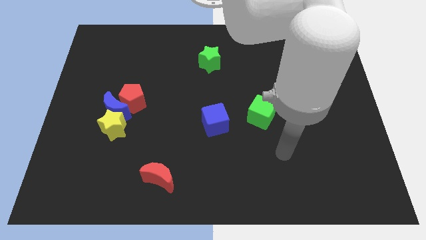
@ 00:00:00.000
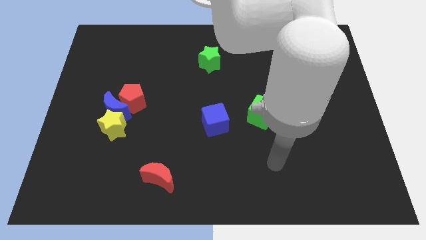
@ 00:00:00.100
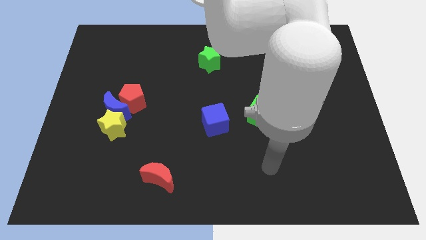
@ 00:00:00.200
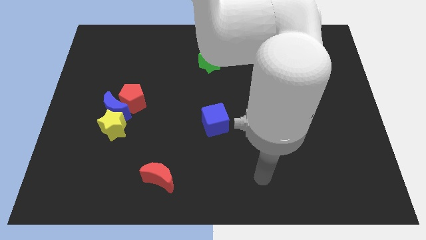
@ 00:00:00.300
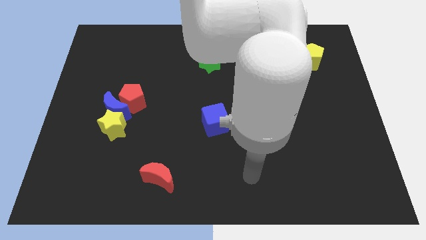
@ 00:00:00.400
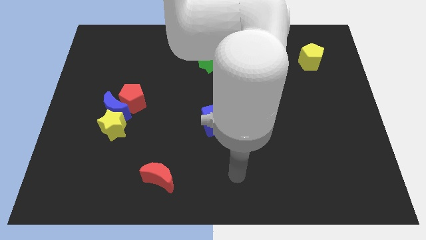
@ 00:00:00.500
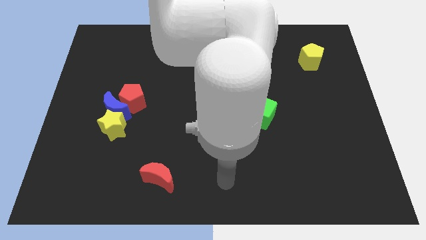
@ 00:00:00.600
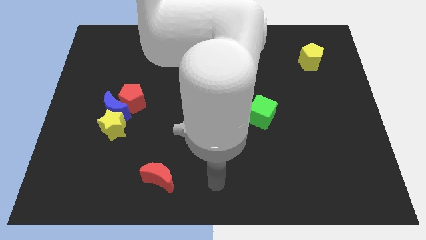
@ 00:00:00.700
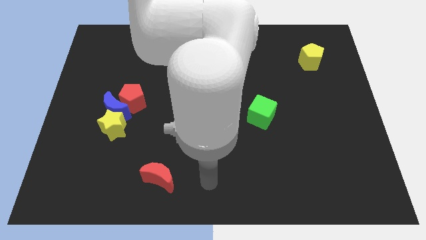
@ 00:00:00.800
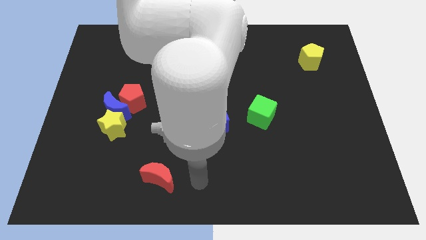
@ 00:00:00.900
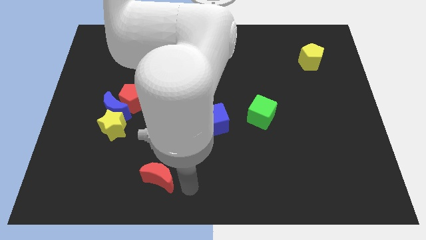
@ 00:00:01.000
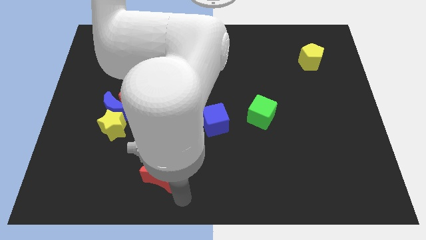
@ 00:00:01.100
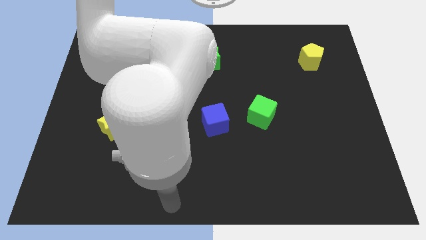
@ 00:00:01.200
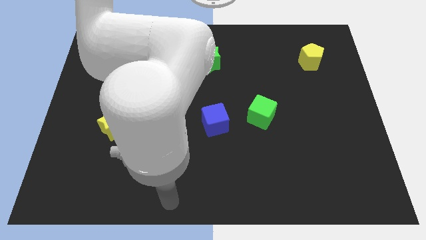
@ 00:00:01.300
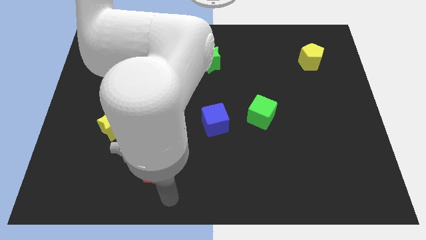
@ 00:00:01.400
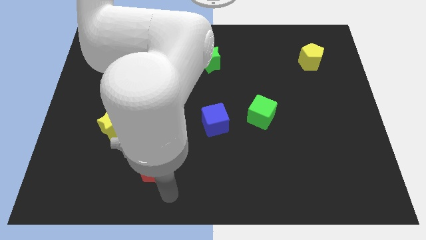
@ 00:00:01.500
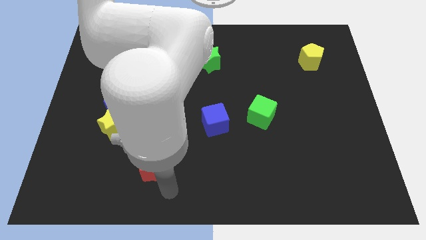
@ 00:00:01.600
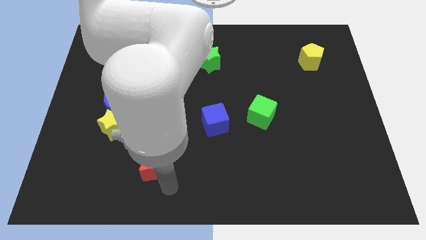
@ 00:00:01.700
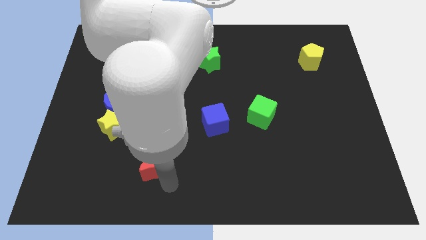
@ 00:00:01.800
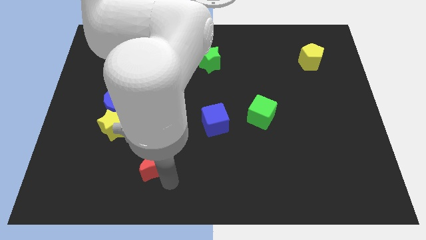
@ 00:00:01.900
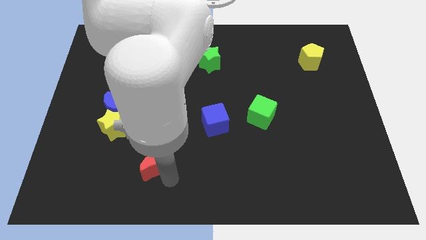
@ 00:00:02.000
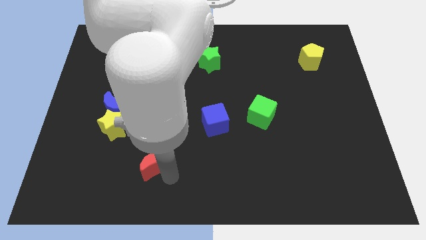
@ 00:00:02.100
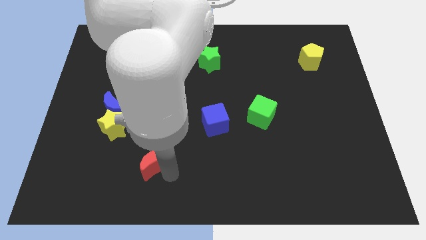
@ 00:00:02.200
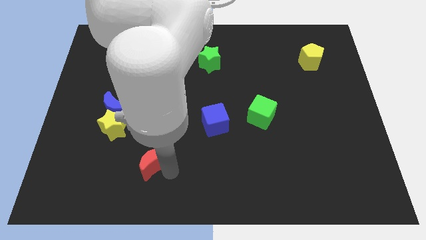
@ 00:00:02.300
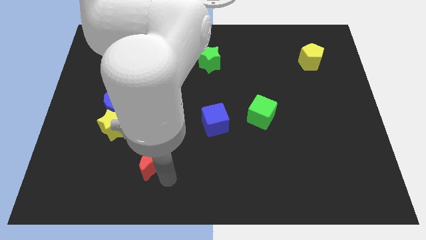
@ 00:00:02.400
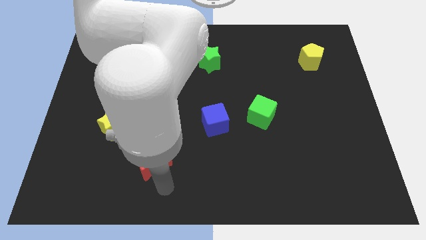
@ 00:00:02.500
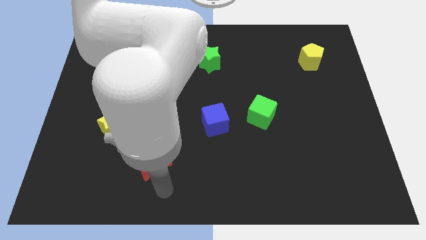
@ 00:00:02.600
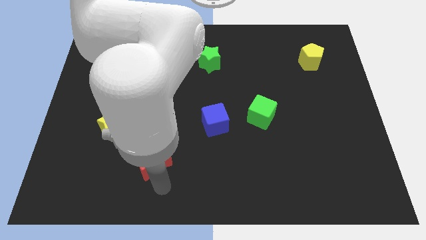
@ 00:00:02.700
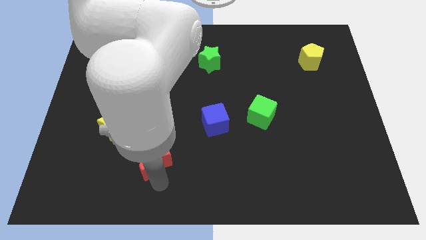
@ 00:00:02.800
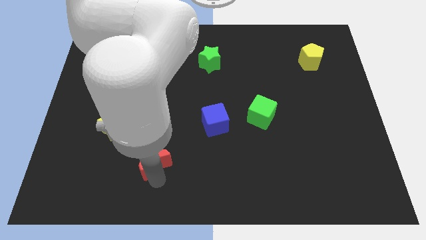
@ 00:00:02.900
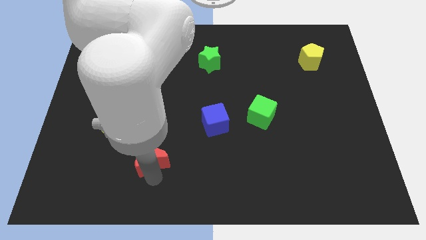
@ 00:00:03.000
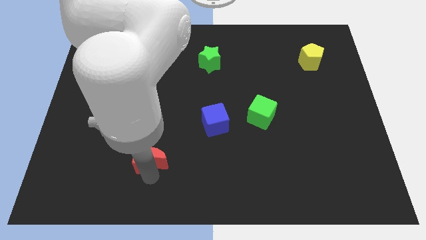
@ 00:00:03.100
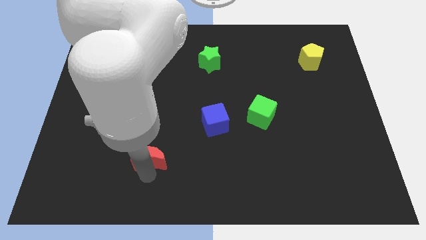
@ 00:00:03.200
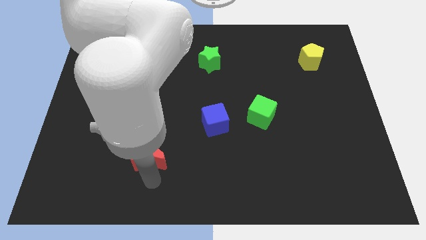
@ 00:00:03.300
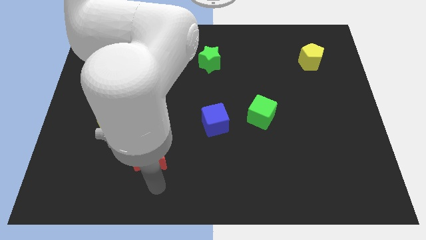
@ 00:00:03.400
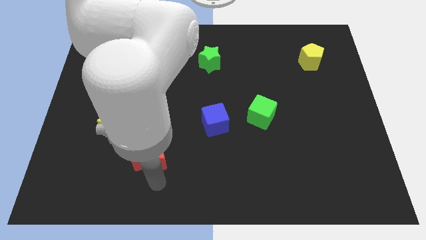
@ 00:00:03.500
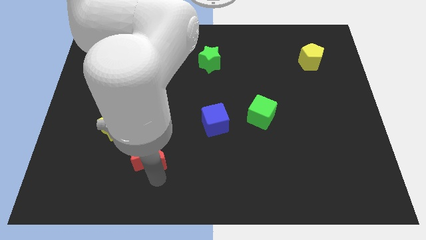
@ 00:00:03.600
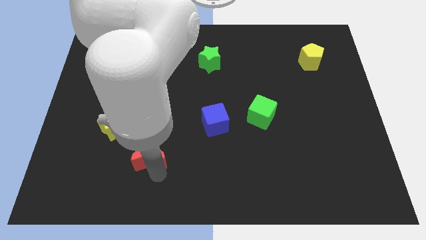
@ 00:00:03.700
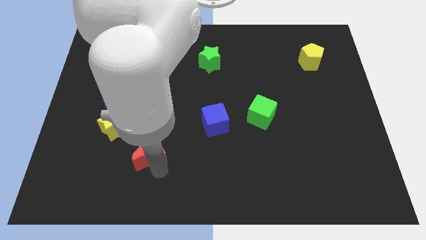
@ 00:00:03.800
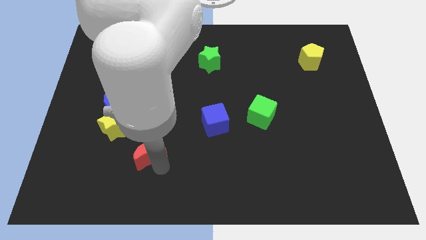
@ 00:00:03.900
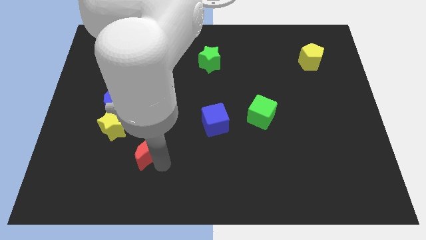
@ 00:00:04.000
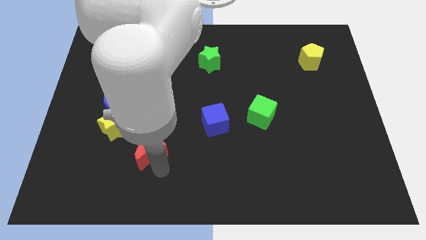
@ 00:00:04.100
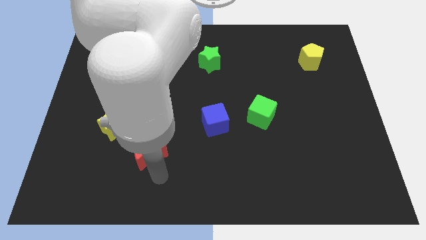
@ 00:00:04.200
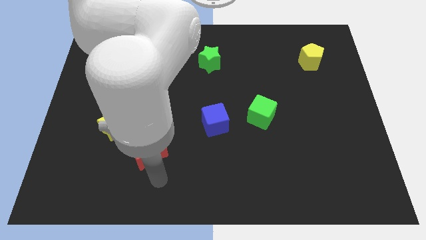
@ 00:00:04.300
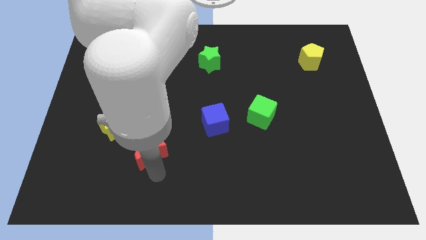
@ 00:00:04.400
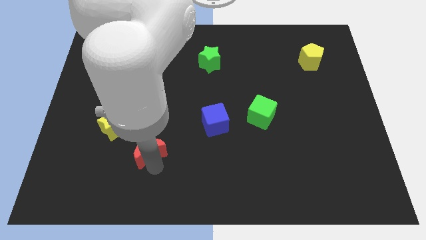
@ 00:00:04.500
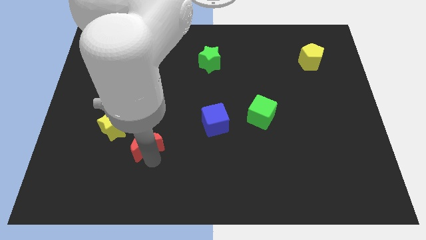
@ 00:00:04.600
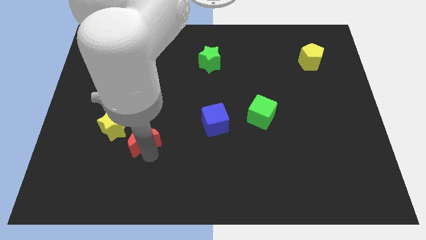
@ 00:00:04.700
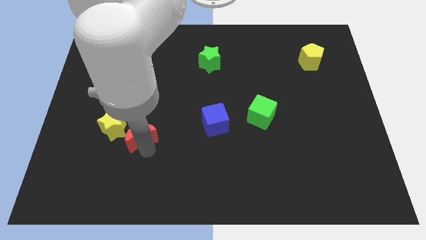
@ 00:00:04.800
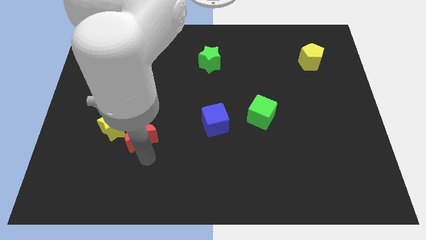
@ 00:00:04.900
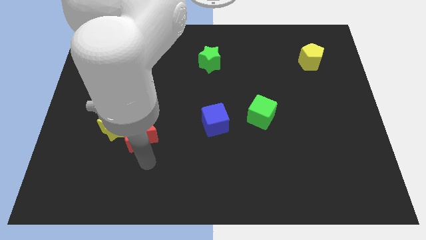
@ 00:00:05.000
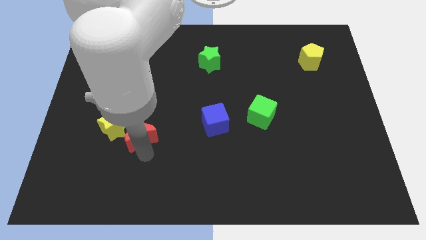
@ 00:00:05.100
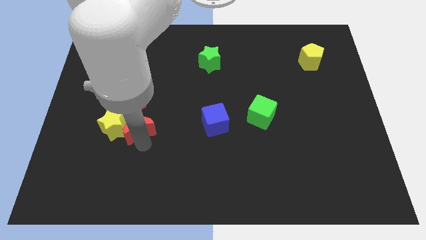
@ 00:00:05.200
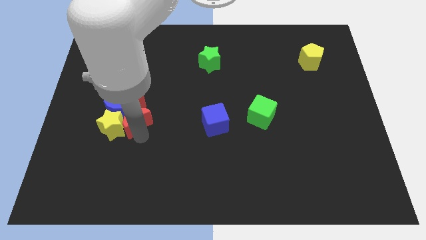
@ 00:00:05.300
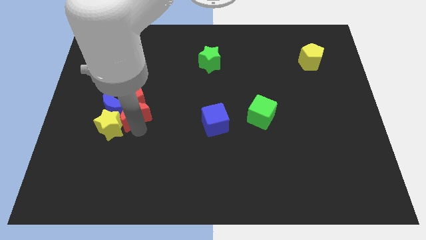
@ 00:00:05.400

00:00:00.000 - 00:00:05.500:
push the red moon towards the red pentagon

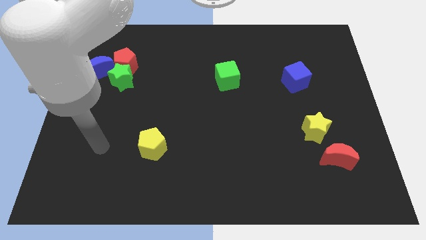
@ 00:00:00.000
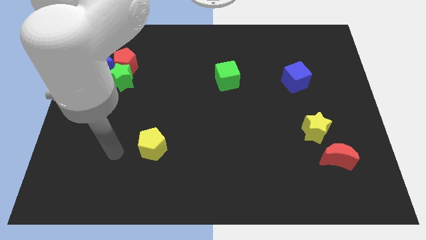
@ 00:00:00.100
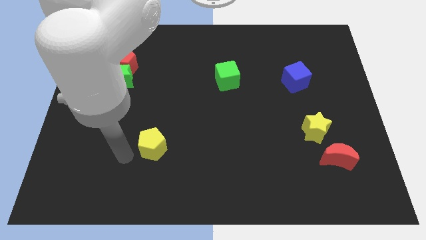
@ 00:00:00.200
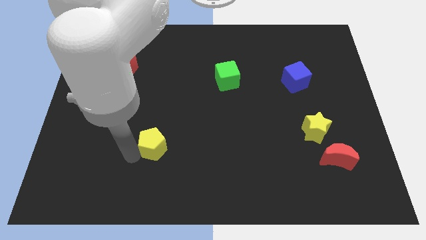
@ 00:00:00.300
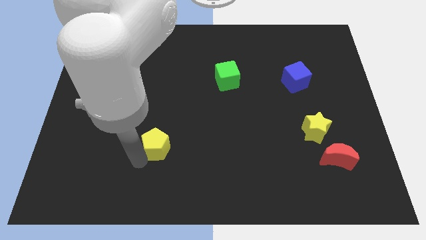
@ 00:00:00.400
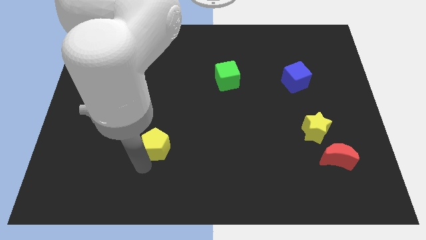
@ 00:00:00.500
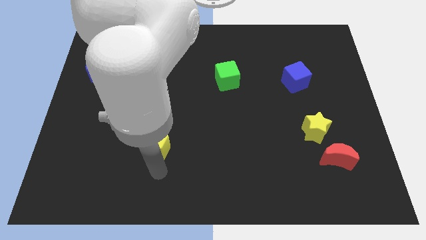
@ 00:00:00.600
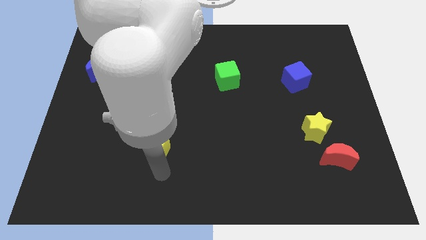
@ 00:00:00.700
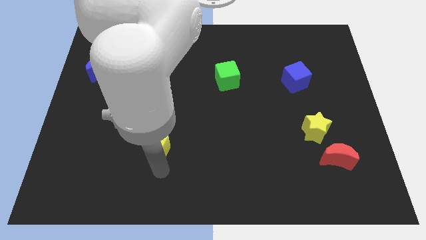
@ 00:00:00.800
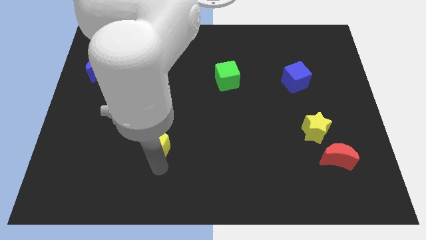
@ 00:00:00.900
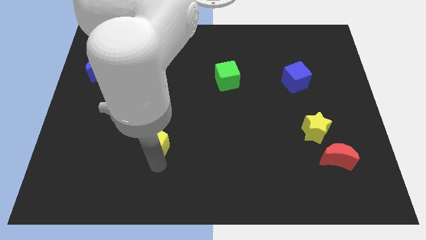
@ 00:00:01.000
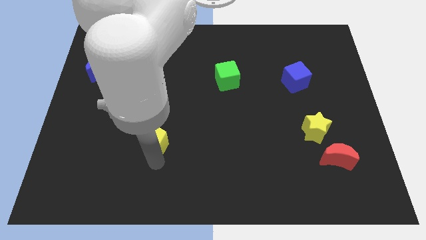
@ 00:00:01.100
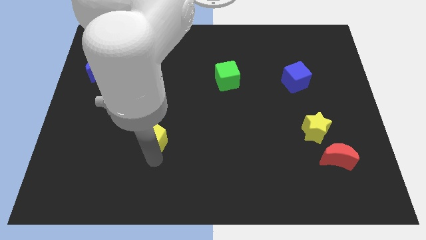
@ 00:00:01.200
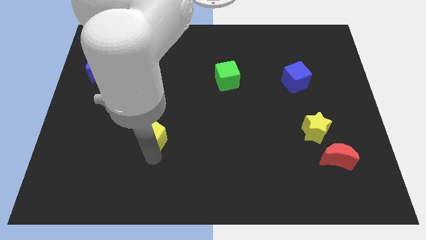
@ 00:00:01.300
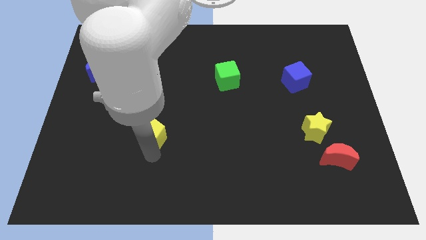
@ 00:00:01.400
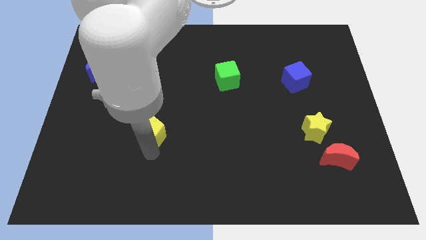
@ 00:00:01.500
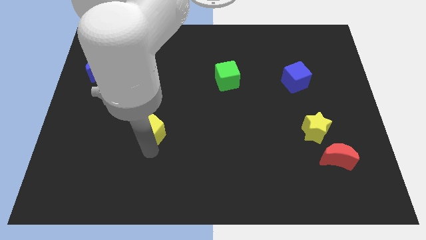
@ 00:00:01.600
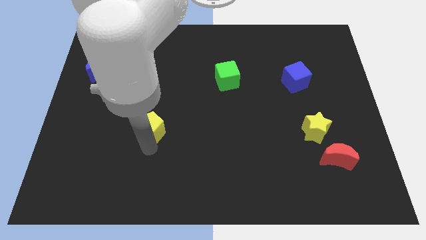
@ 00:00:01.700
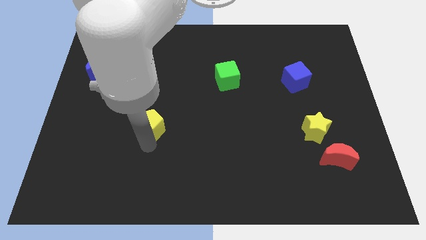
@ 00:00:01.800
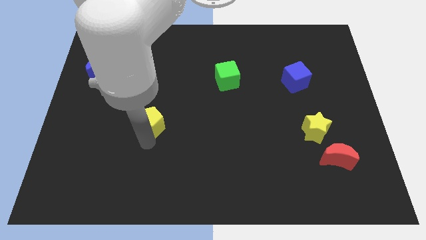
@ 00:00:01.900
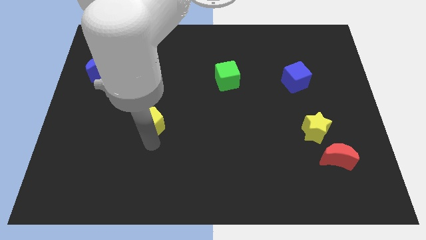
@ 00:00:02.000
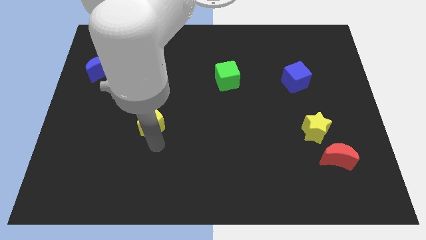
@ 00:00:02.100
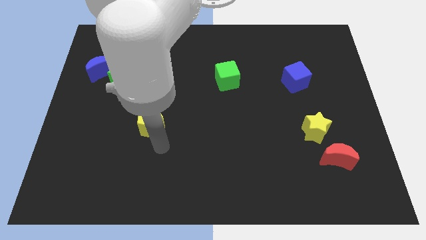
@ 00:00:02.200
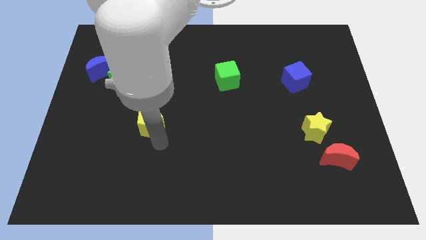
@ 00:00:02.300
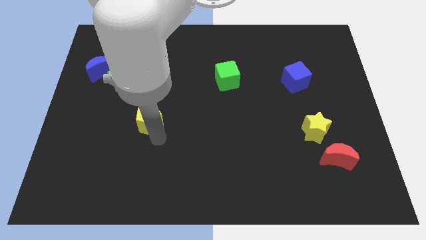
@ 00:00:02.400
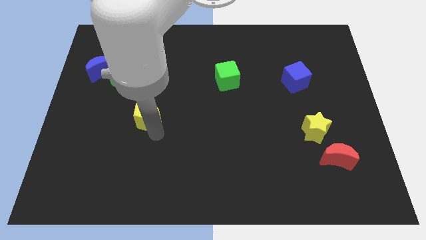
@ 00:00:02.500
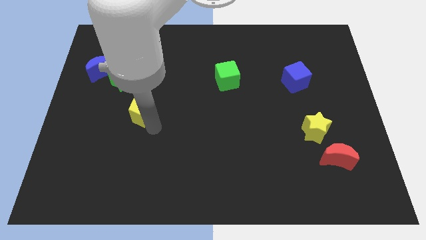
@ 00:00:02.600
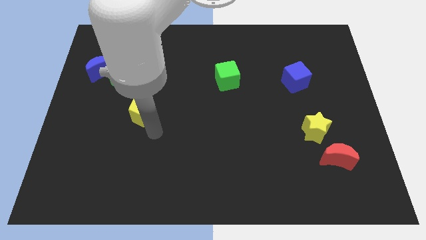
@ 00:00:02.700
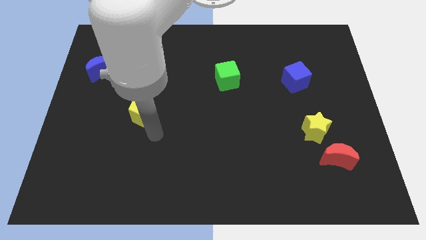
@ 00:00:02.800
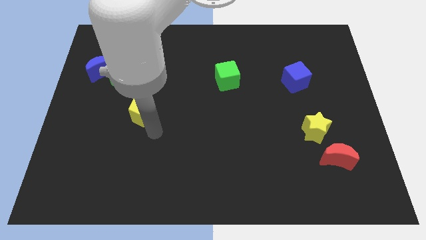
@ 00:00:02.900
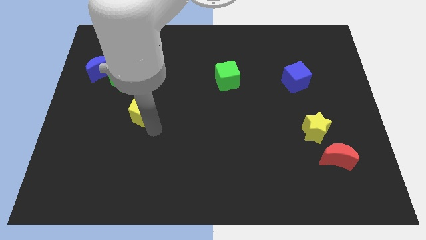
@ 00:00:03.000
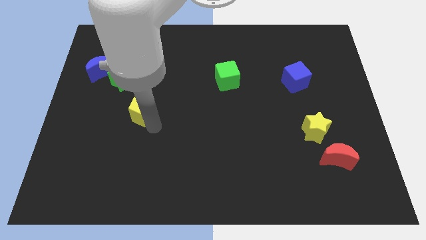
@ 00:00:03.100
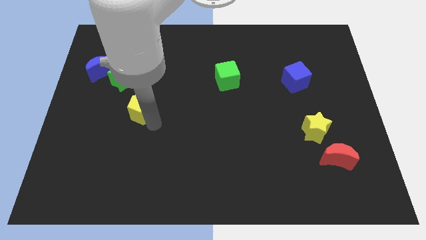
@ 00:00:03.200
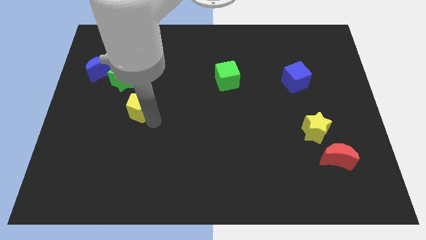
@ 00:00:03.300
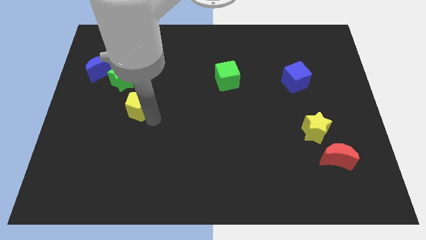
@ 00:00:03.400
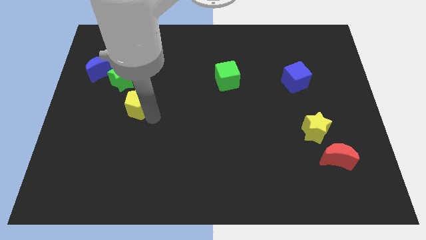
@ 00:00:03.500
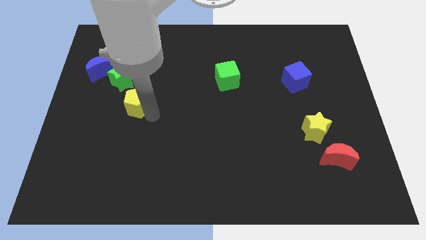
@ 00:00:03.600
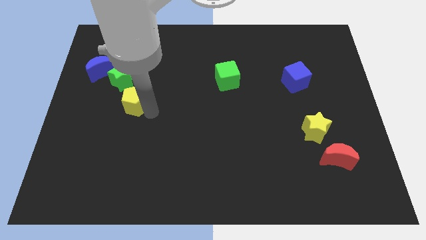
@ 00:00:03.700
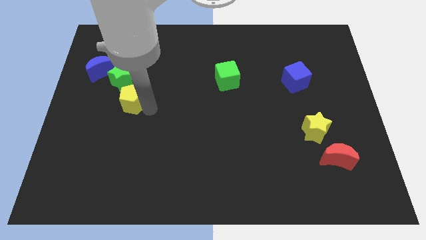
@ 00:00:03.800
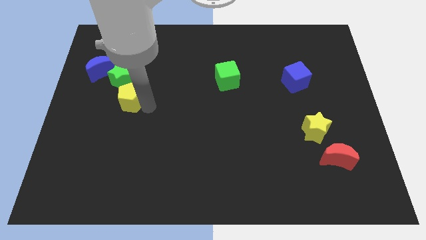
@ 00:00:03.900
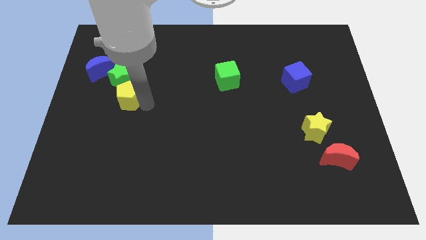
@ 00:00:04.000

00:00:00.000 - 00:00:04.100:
move the yellow pentagon next to the green star
